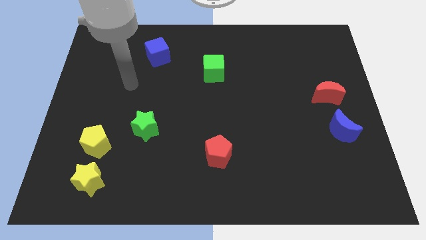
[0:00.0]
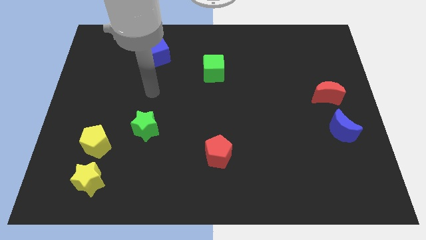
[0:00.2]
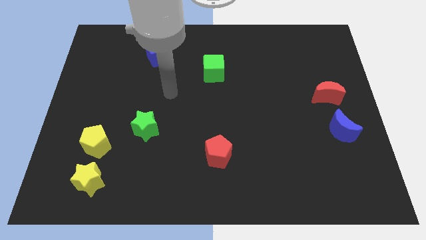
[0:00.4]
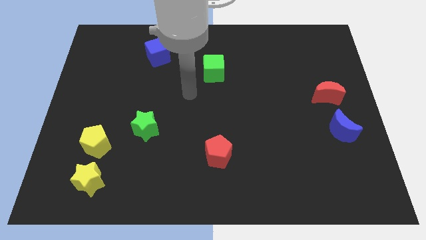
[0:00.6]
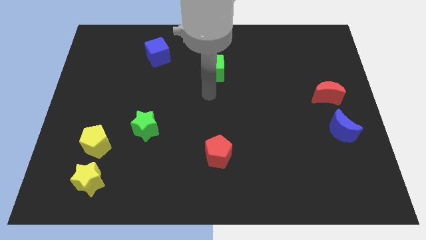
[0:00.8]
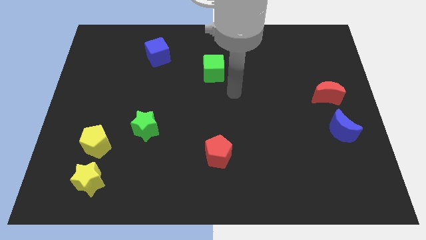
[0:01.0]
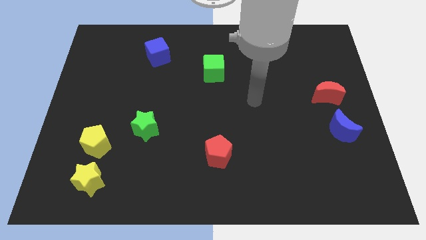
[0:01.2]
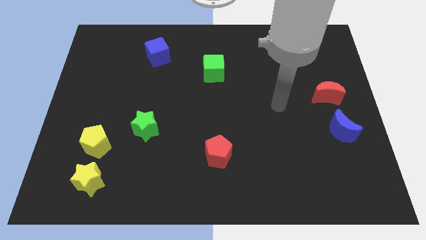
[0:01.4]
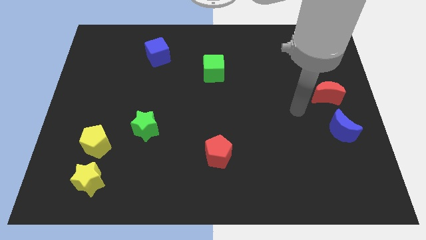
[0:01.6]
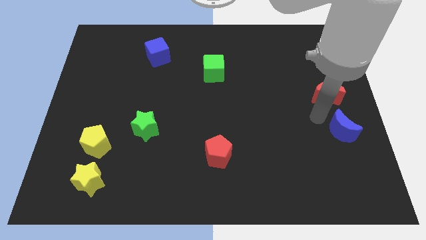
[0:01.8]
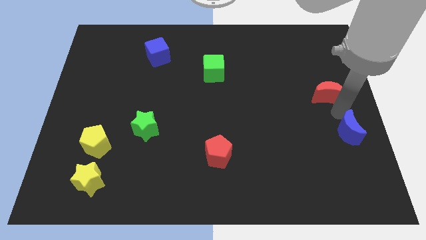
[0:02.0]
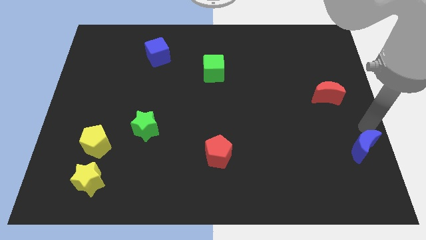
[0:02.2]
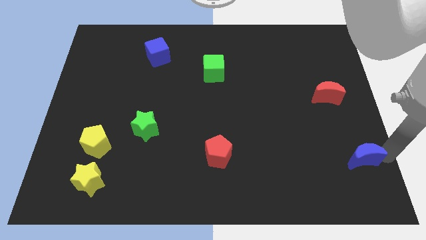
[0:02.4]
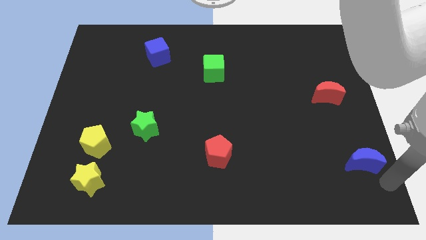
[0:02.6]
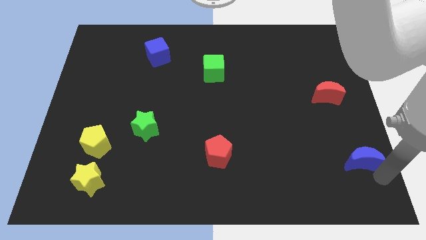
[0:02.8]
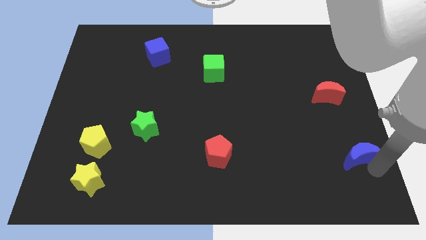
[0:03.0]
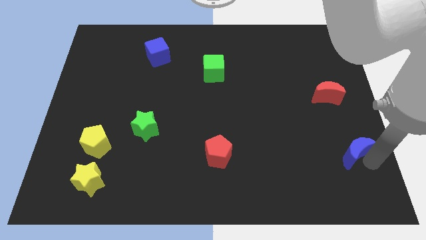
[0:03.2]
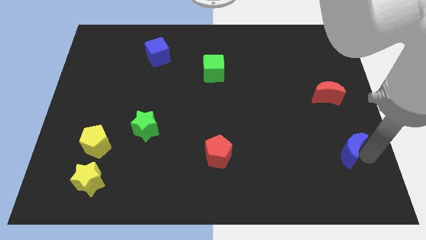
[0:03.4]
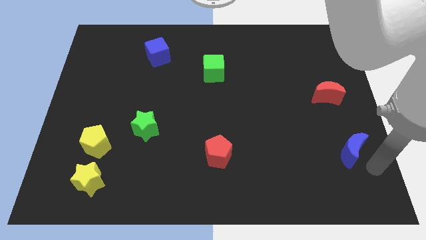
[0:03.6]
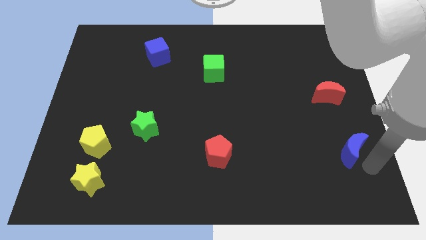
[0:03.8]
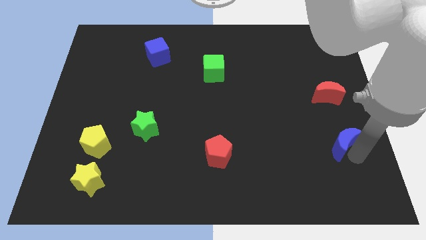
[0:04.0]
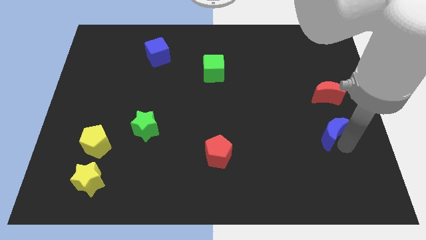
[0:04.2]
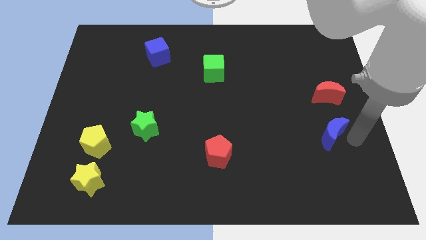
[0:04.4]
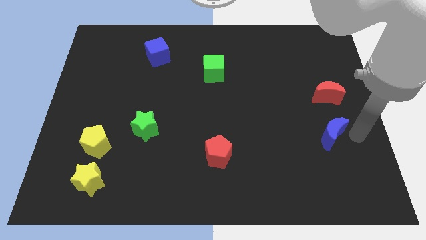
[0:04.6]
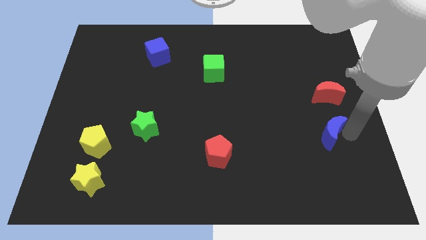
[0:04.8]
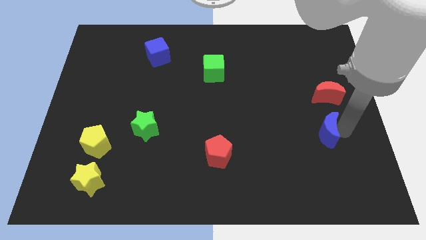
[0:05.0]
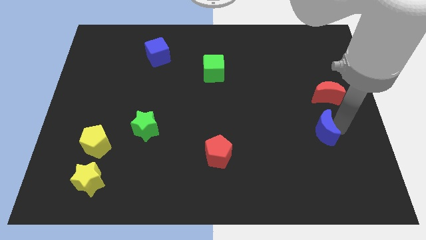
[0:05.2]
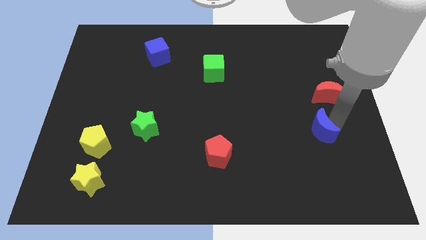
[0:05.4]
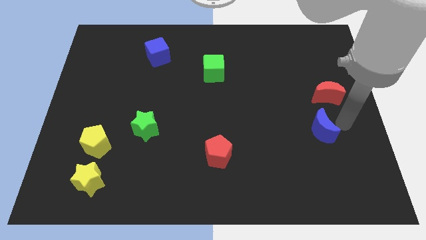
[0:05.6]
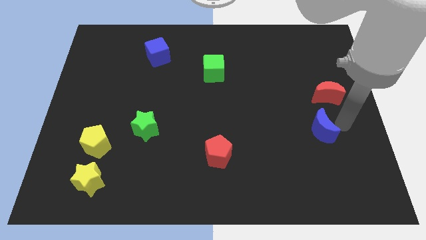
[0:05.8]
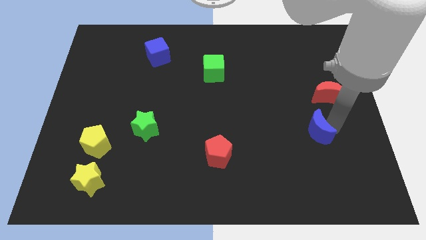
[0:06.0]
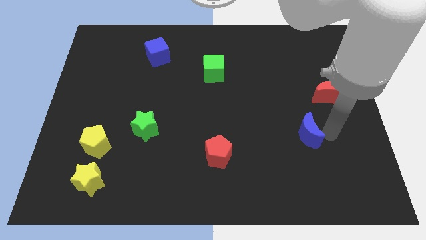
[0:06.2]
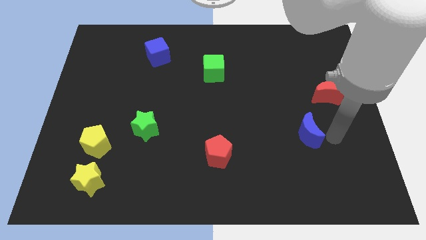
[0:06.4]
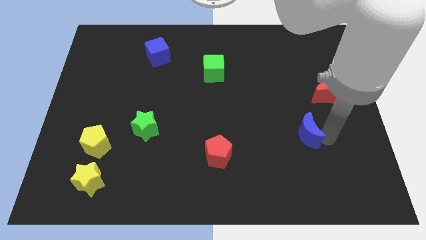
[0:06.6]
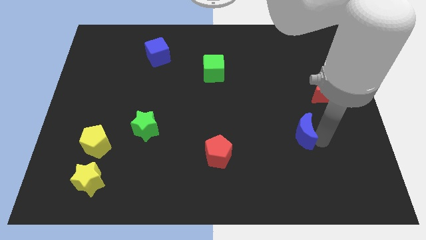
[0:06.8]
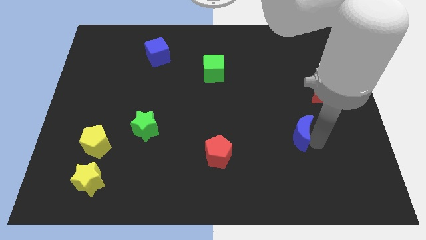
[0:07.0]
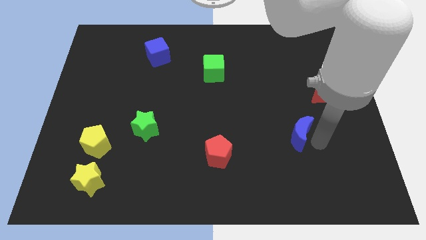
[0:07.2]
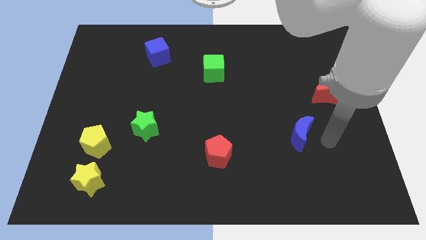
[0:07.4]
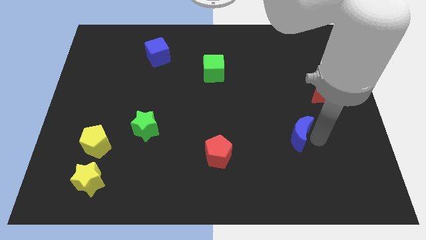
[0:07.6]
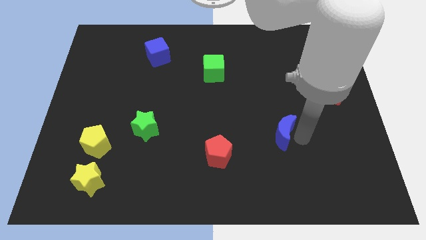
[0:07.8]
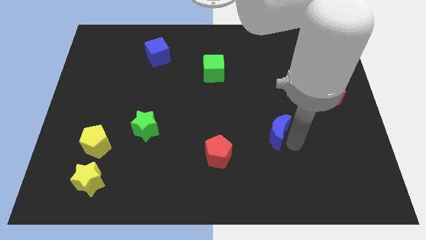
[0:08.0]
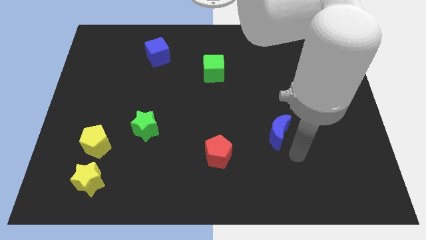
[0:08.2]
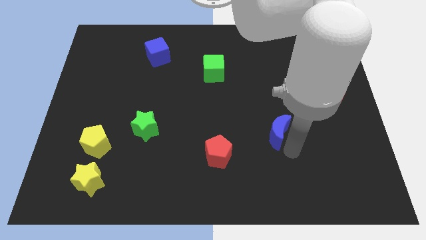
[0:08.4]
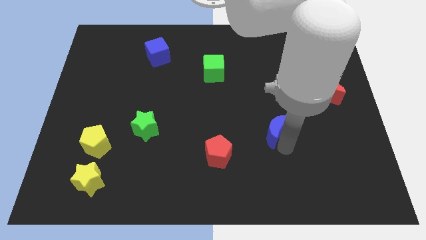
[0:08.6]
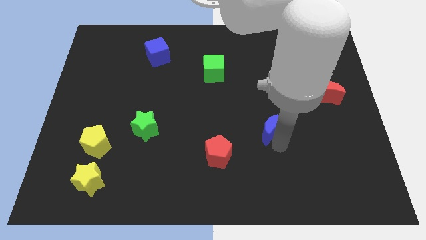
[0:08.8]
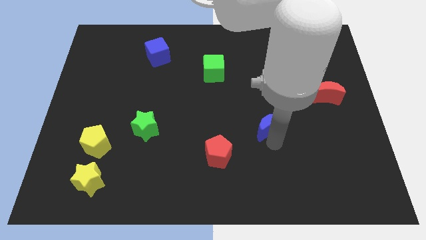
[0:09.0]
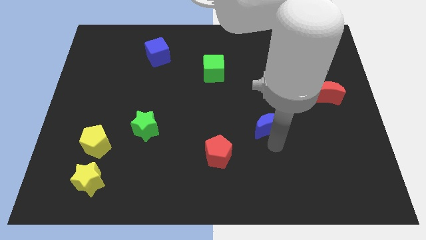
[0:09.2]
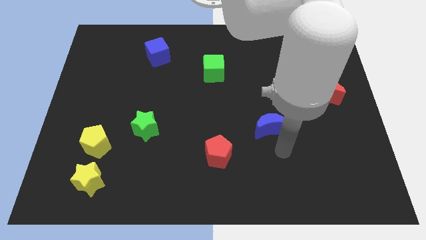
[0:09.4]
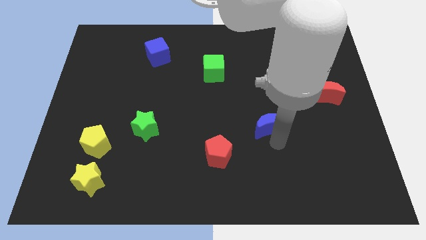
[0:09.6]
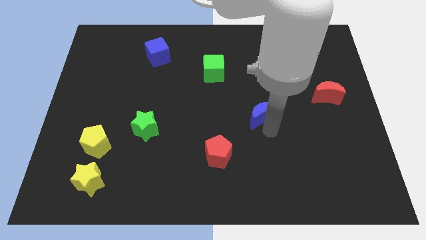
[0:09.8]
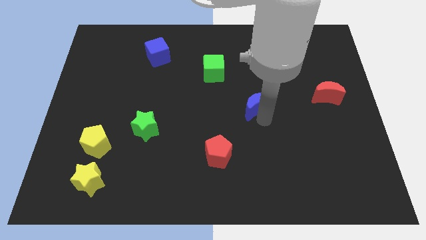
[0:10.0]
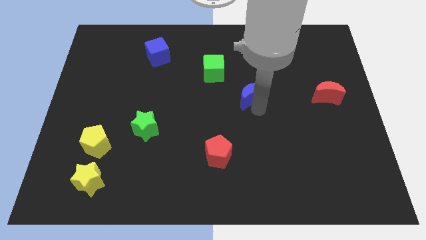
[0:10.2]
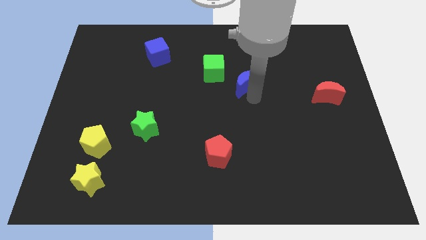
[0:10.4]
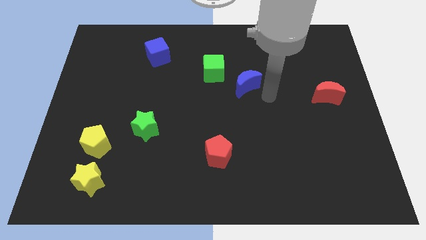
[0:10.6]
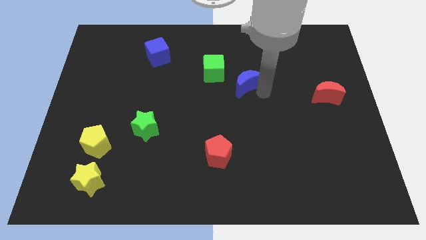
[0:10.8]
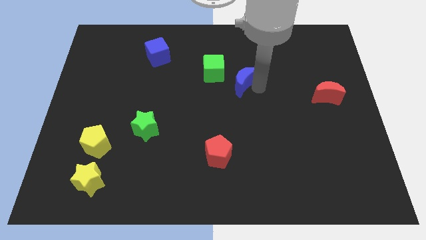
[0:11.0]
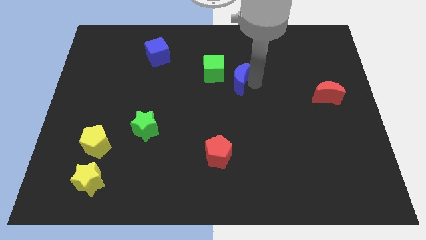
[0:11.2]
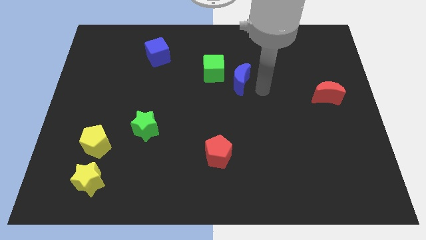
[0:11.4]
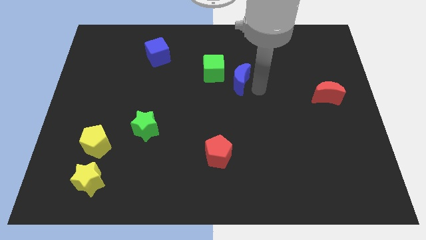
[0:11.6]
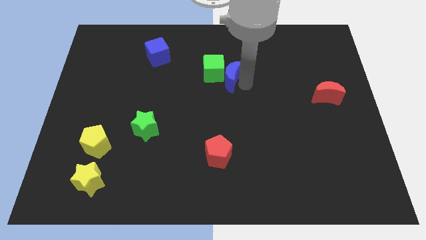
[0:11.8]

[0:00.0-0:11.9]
slide the blue moon towards the green cube
